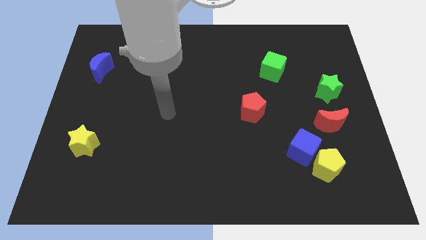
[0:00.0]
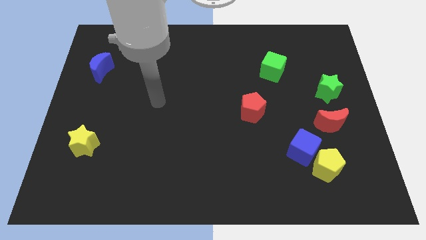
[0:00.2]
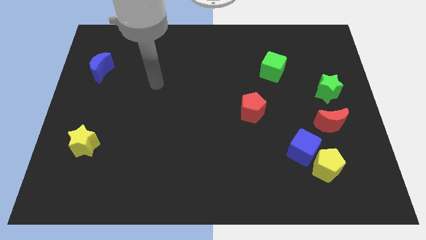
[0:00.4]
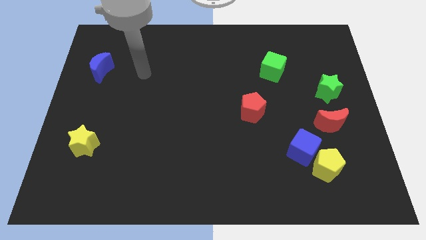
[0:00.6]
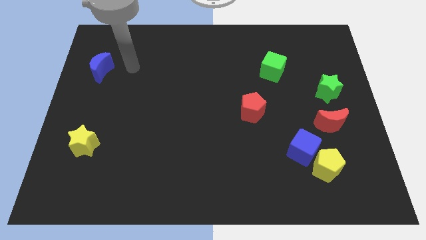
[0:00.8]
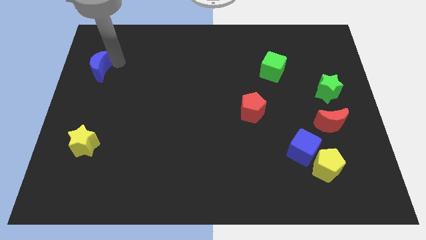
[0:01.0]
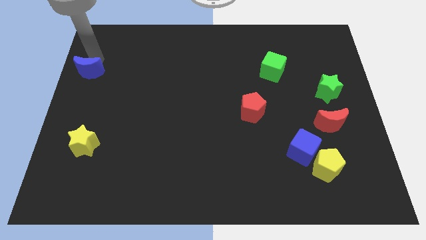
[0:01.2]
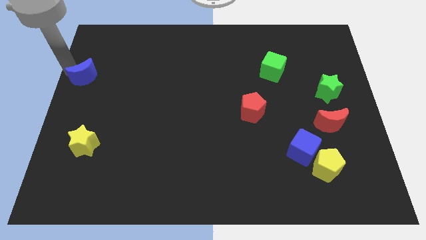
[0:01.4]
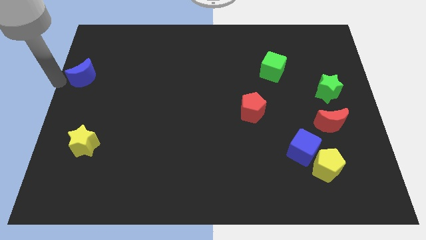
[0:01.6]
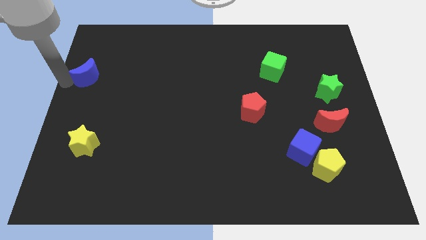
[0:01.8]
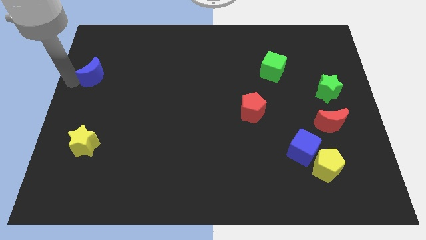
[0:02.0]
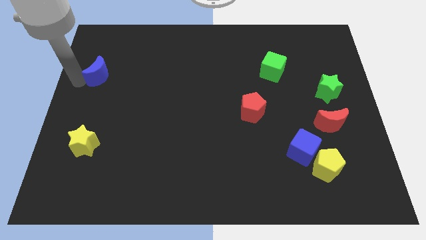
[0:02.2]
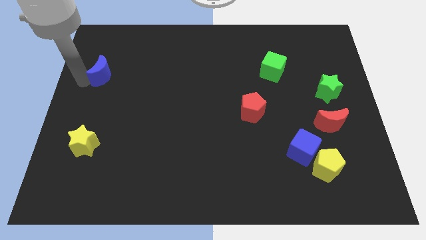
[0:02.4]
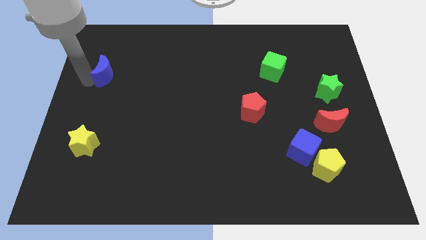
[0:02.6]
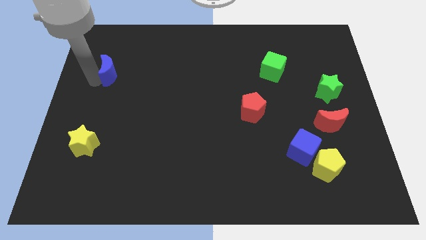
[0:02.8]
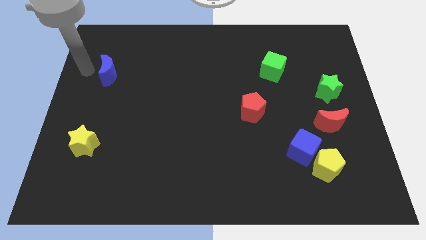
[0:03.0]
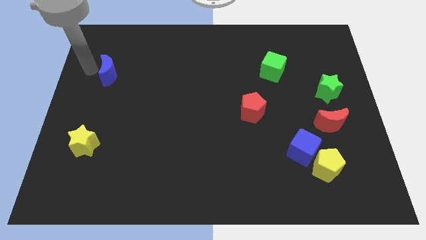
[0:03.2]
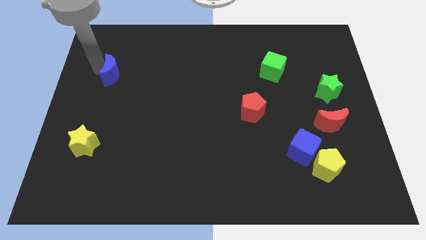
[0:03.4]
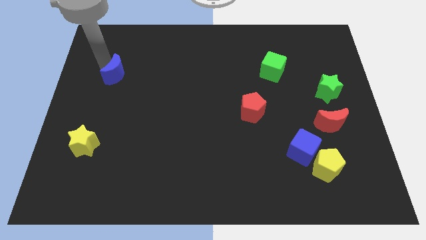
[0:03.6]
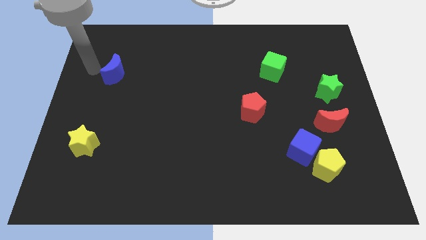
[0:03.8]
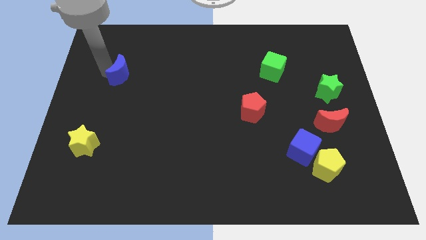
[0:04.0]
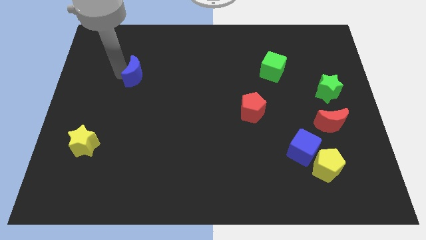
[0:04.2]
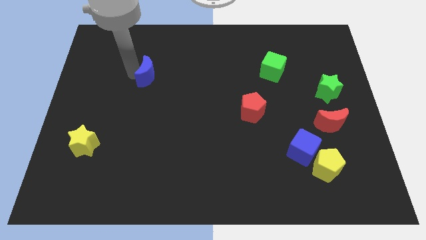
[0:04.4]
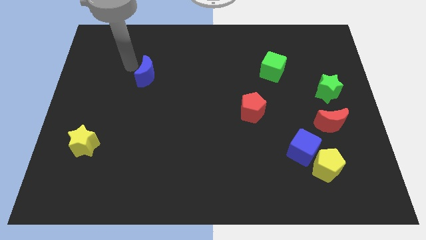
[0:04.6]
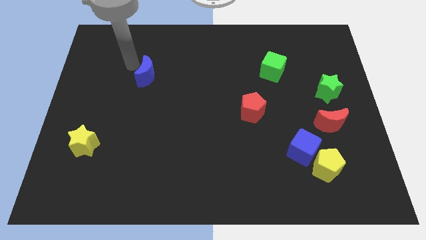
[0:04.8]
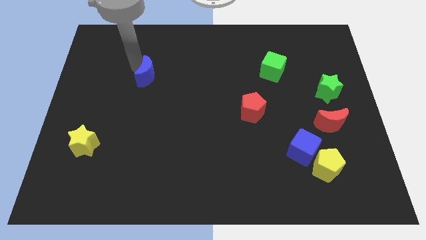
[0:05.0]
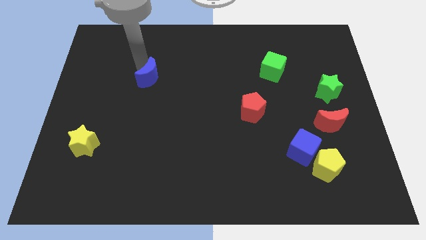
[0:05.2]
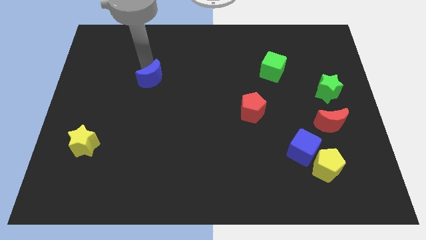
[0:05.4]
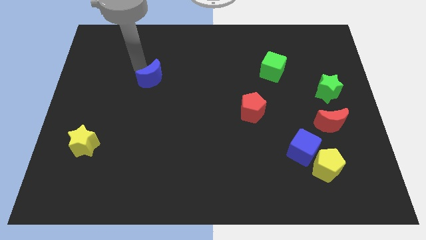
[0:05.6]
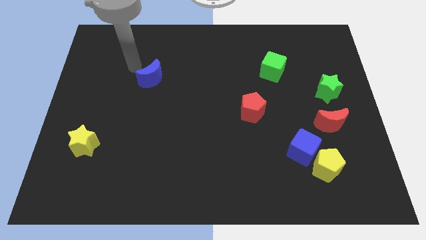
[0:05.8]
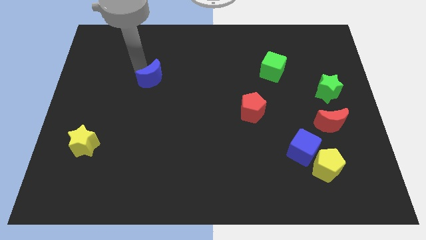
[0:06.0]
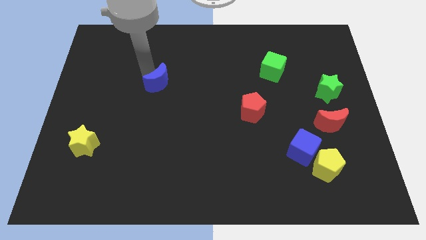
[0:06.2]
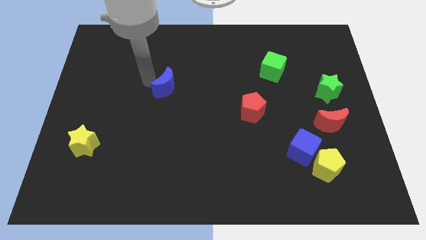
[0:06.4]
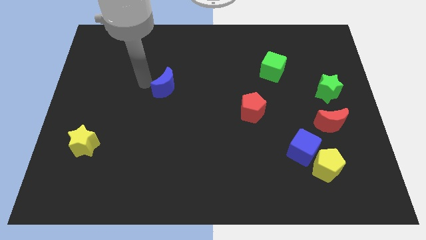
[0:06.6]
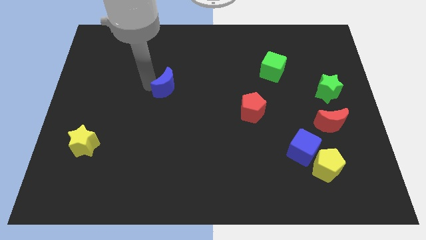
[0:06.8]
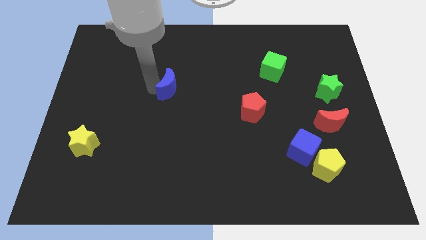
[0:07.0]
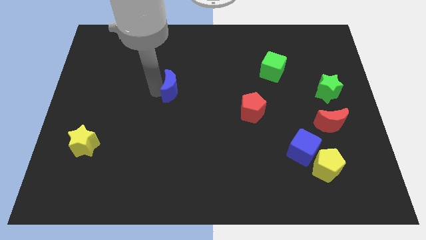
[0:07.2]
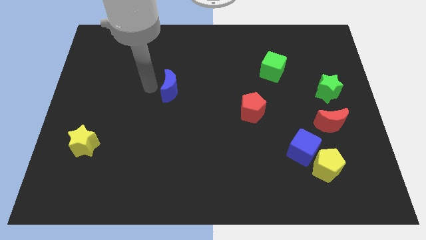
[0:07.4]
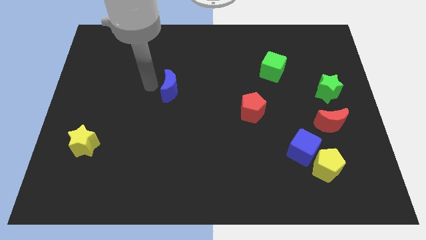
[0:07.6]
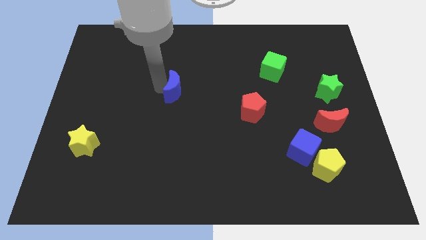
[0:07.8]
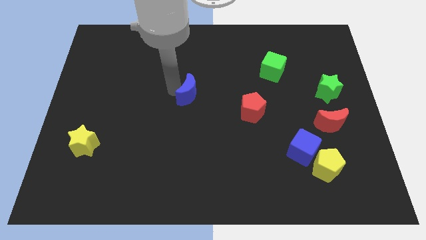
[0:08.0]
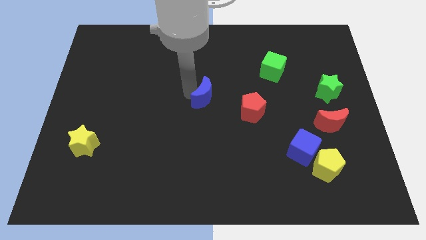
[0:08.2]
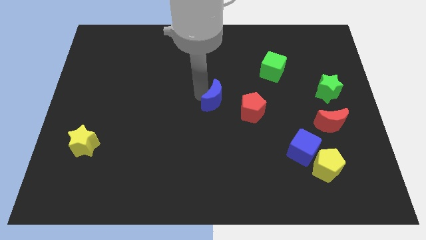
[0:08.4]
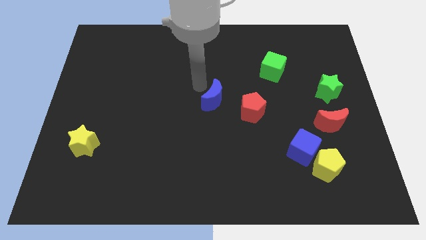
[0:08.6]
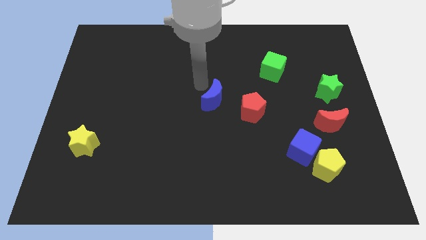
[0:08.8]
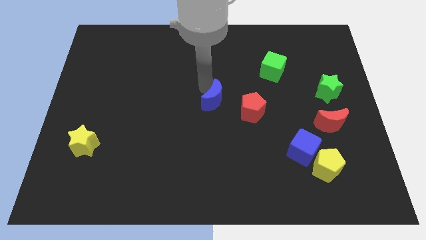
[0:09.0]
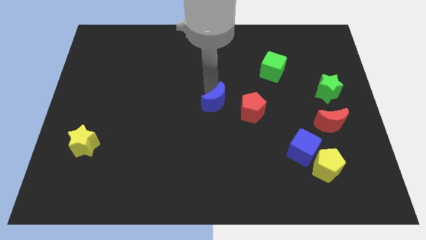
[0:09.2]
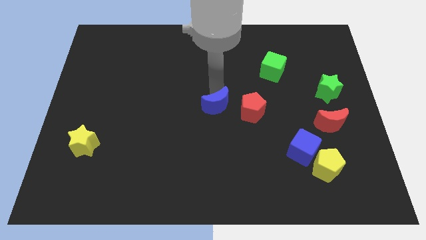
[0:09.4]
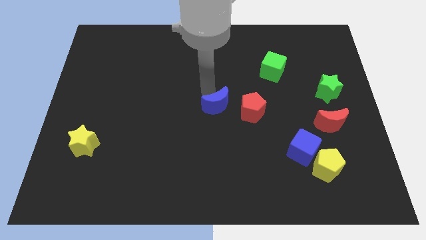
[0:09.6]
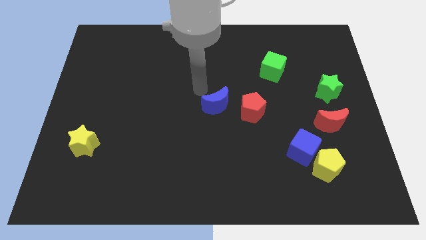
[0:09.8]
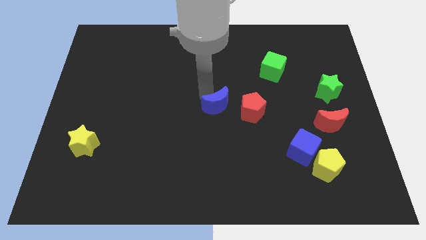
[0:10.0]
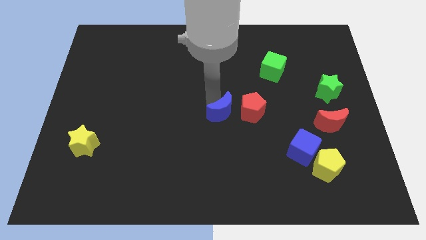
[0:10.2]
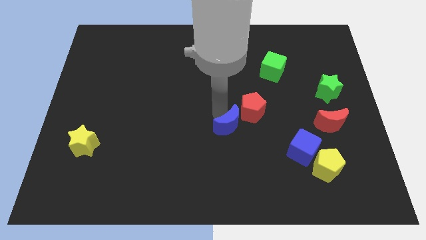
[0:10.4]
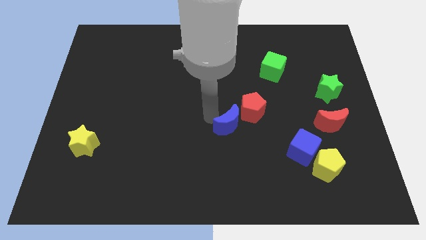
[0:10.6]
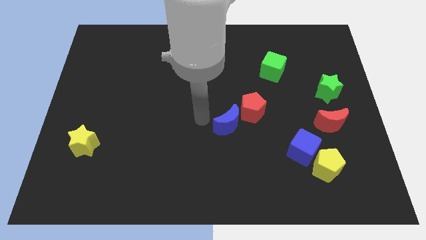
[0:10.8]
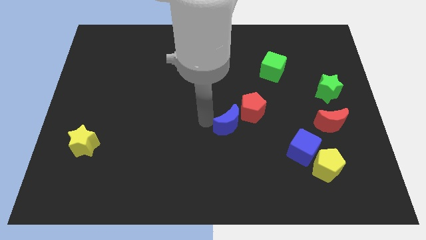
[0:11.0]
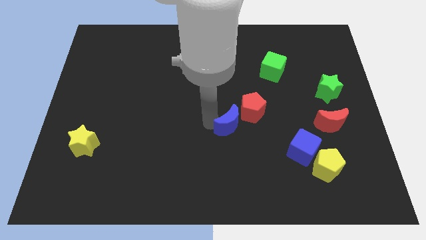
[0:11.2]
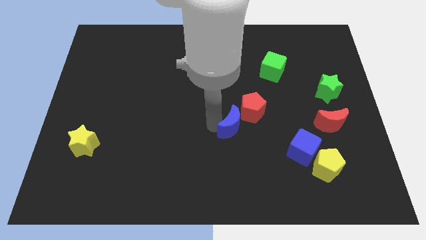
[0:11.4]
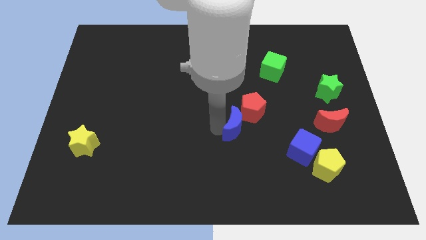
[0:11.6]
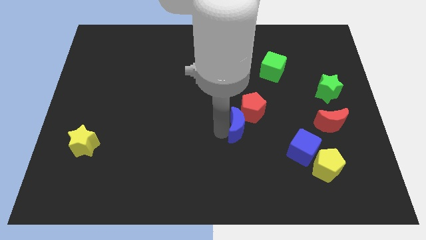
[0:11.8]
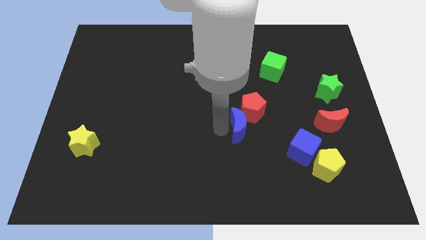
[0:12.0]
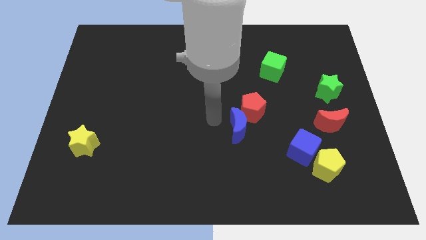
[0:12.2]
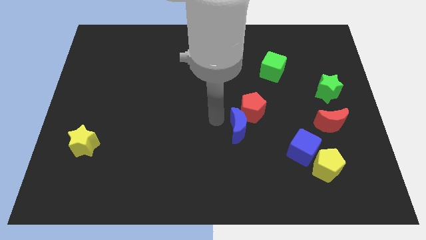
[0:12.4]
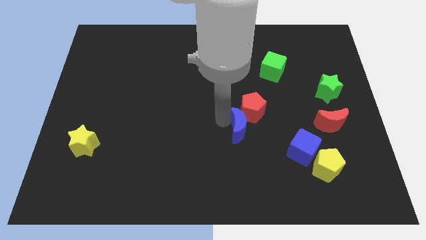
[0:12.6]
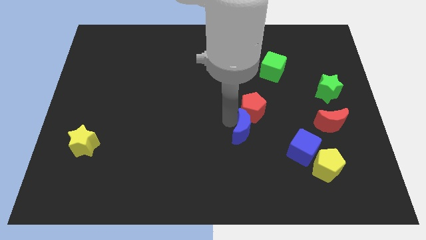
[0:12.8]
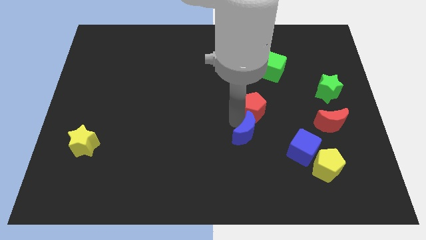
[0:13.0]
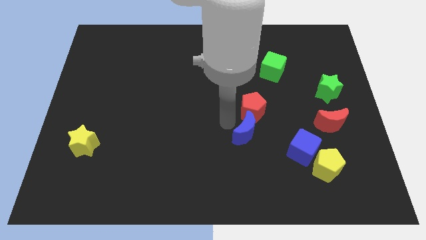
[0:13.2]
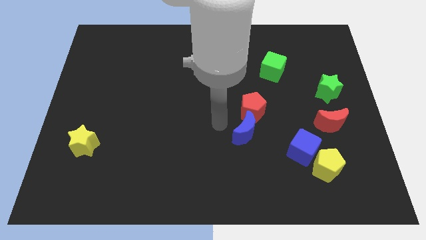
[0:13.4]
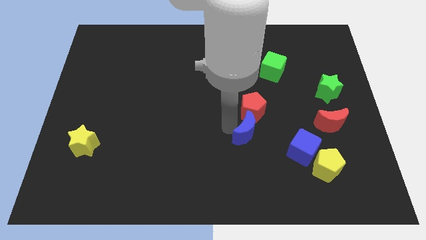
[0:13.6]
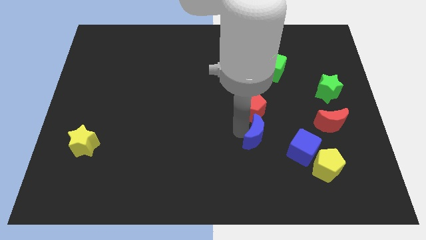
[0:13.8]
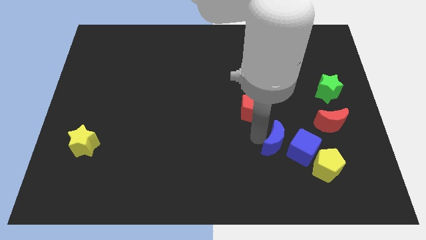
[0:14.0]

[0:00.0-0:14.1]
move the blue moon to the blue cube
